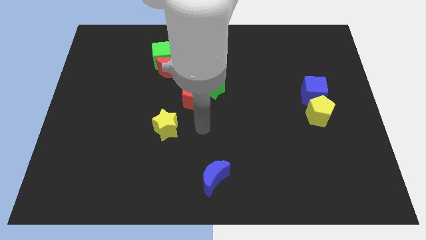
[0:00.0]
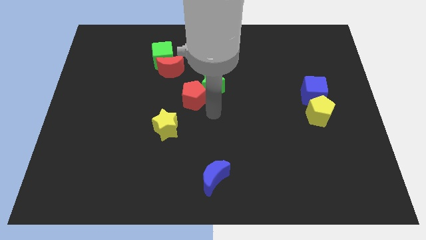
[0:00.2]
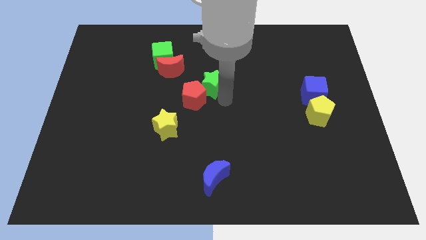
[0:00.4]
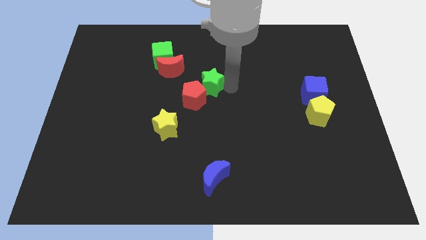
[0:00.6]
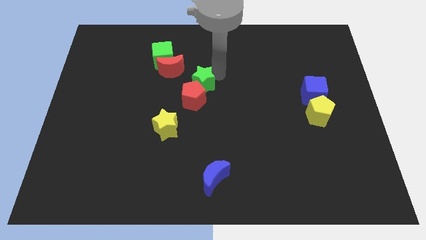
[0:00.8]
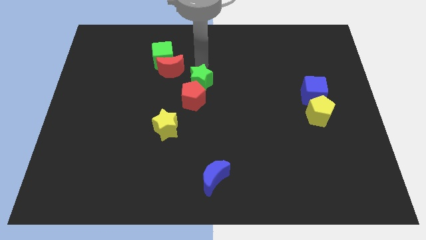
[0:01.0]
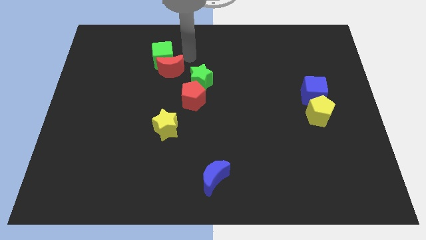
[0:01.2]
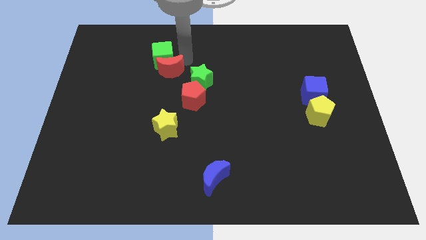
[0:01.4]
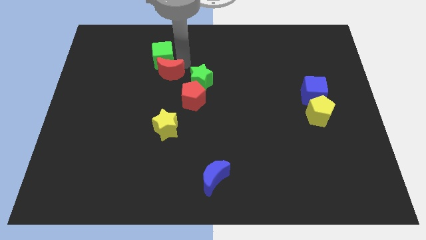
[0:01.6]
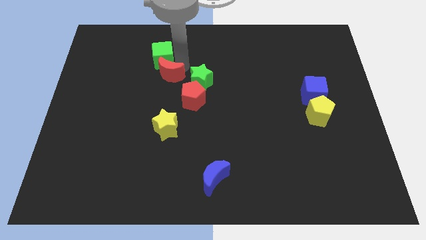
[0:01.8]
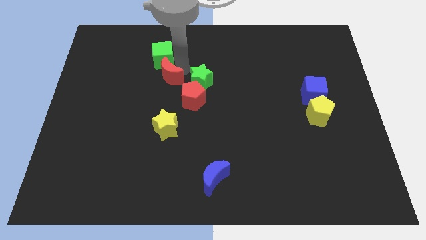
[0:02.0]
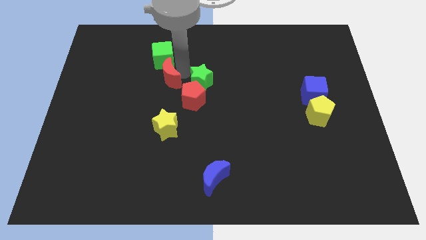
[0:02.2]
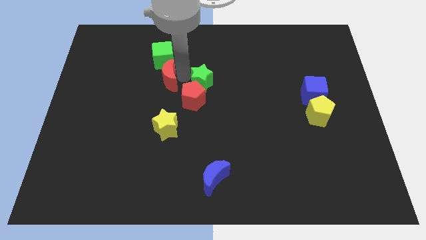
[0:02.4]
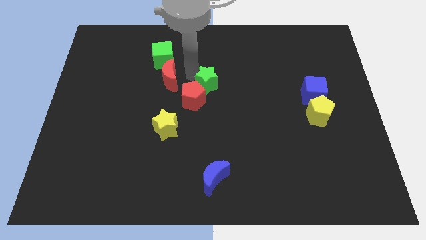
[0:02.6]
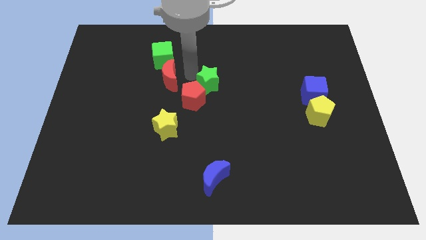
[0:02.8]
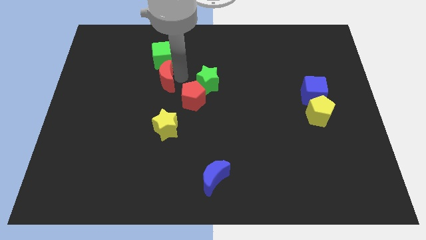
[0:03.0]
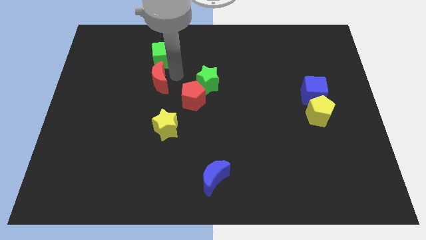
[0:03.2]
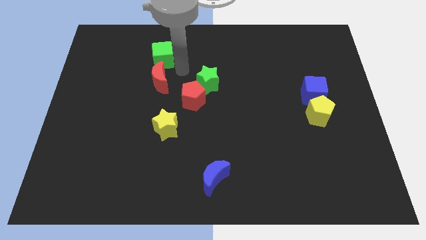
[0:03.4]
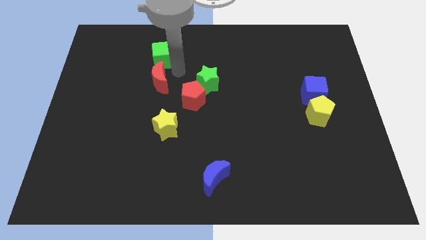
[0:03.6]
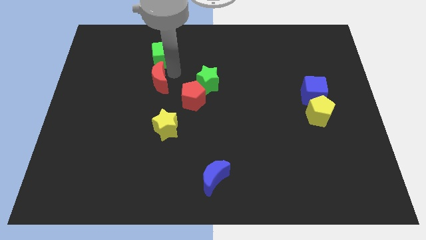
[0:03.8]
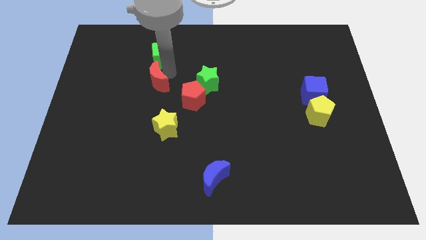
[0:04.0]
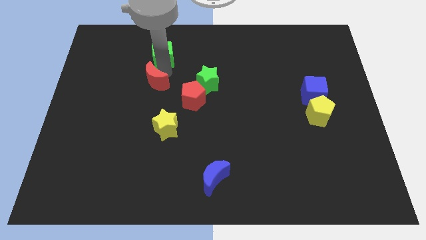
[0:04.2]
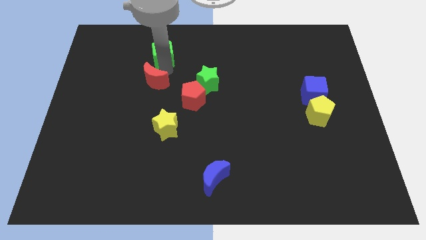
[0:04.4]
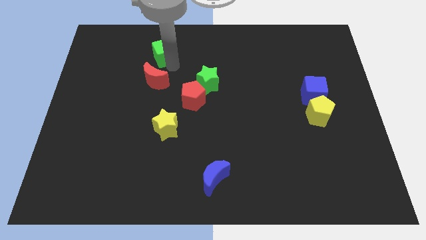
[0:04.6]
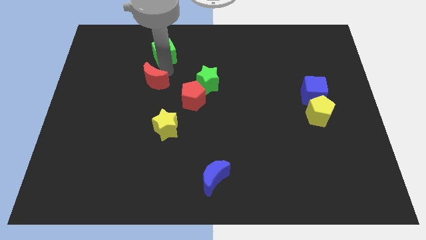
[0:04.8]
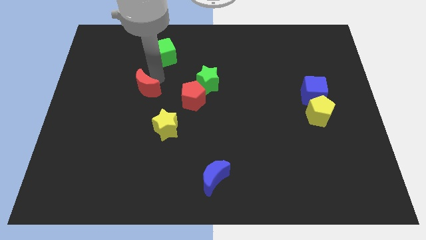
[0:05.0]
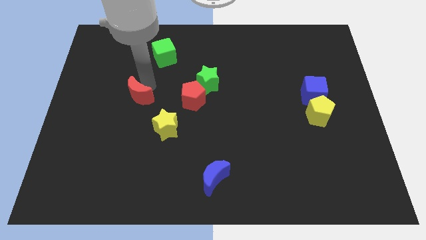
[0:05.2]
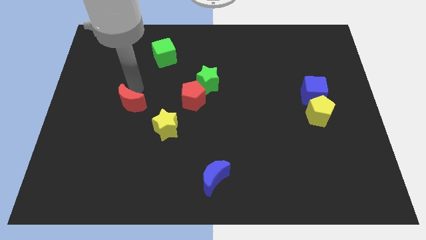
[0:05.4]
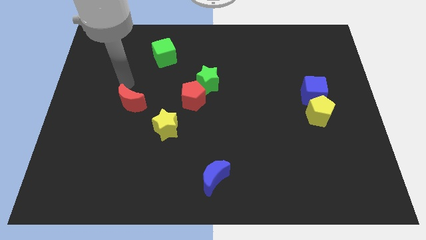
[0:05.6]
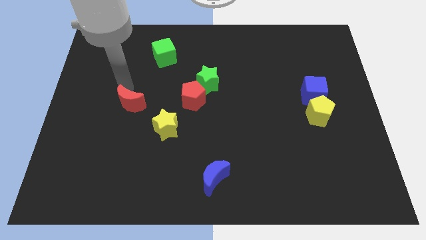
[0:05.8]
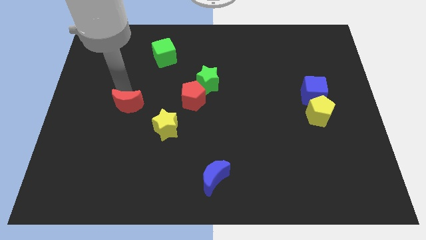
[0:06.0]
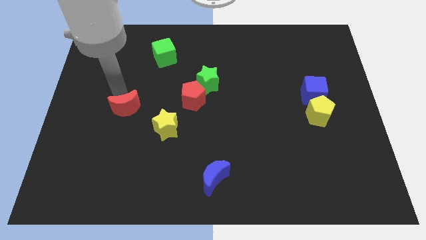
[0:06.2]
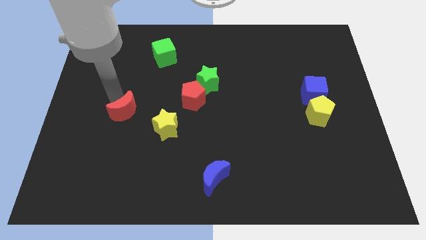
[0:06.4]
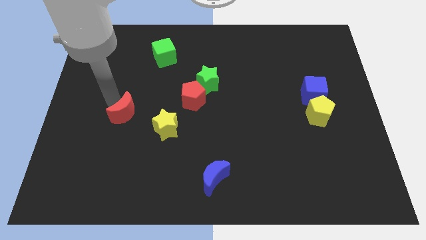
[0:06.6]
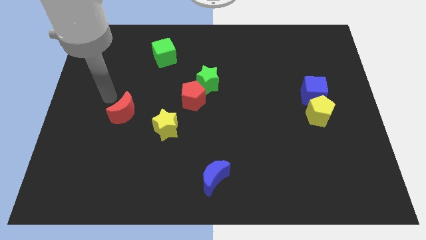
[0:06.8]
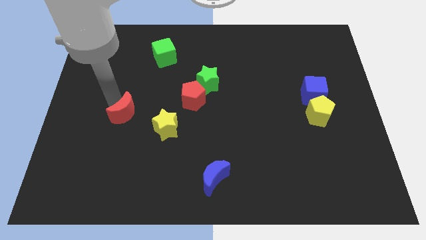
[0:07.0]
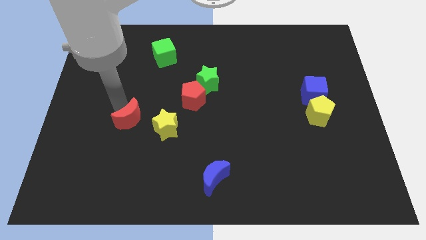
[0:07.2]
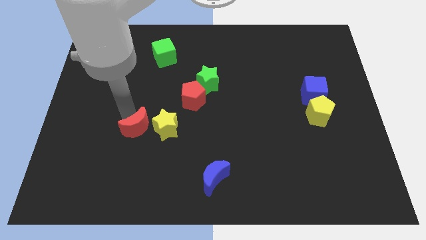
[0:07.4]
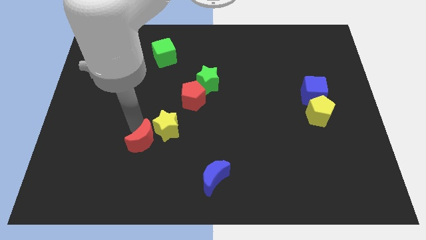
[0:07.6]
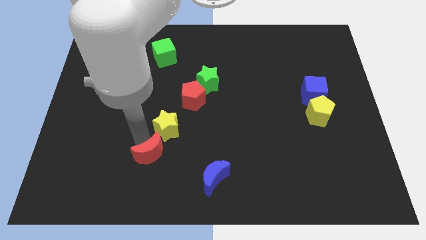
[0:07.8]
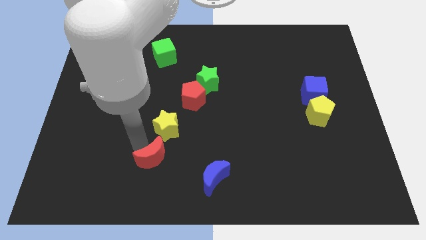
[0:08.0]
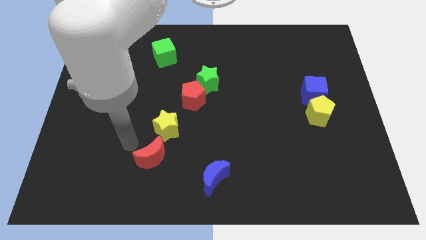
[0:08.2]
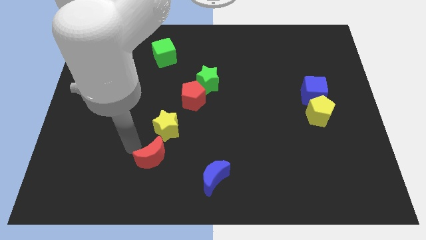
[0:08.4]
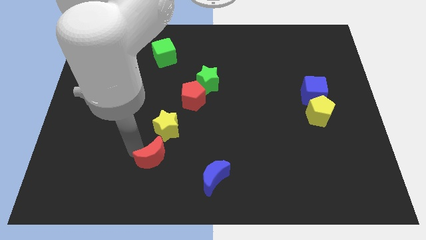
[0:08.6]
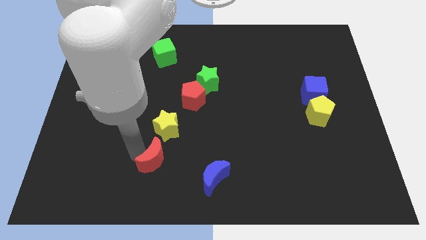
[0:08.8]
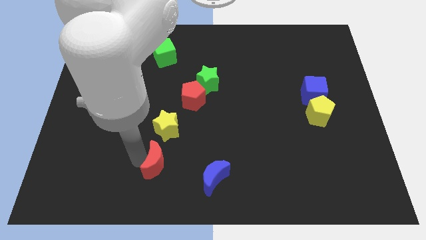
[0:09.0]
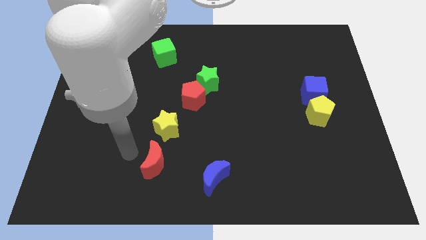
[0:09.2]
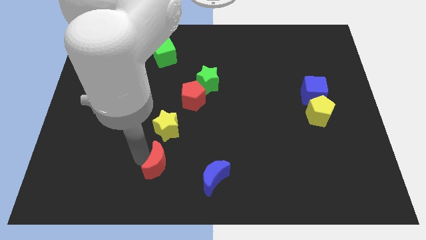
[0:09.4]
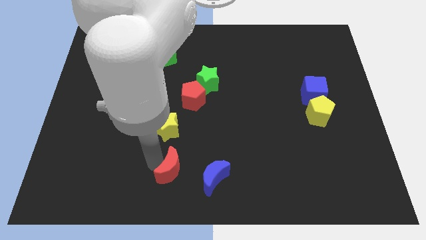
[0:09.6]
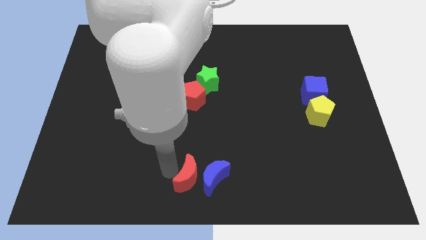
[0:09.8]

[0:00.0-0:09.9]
put the red moon close to the blue moon

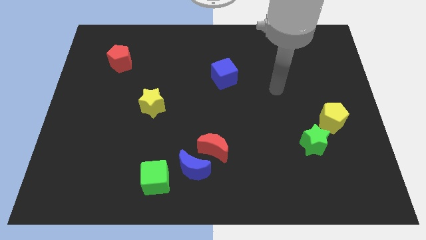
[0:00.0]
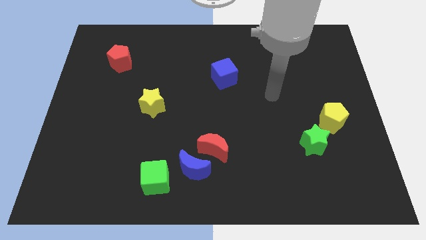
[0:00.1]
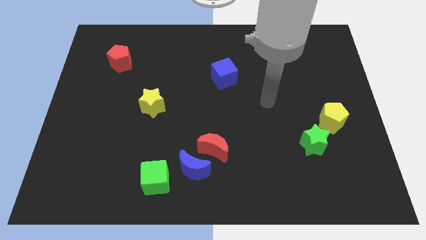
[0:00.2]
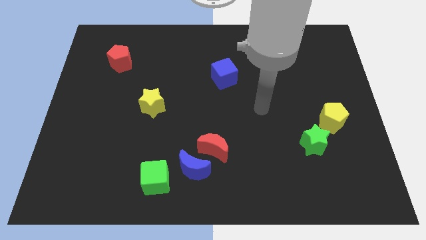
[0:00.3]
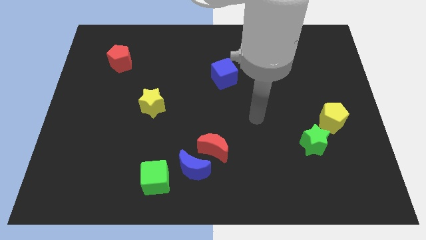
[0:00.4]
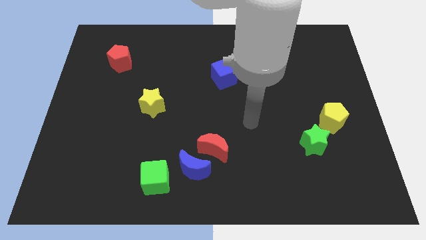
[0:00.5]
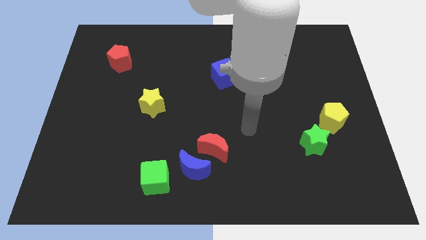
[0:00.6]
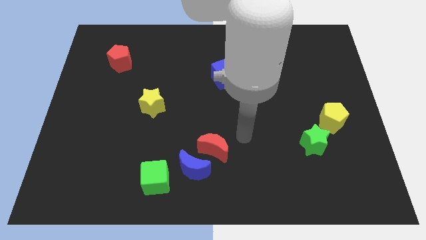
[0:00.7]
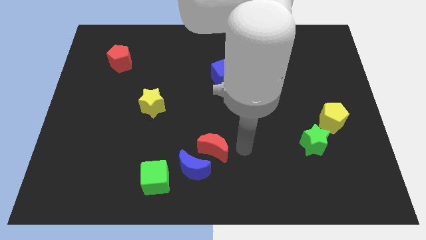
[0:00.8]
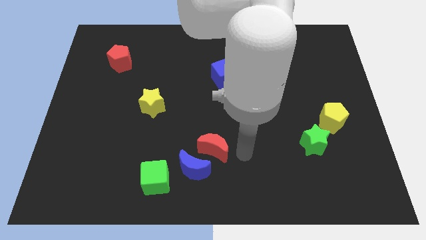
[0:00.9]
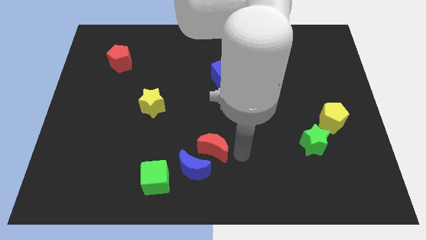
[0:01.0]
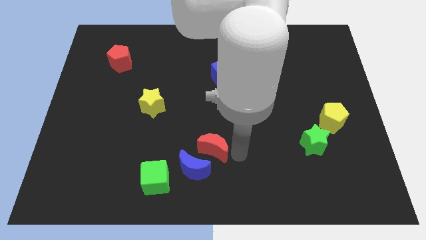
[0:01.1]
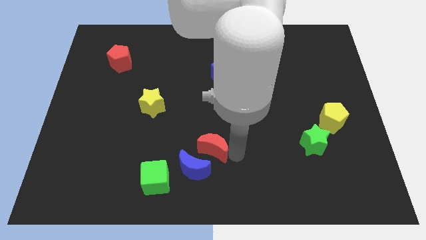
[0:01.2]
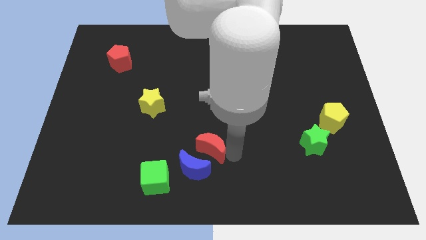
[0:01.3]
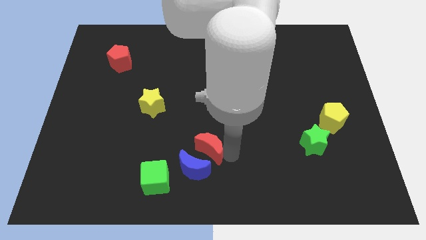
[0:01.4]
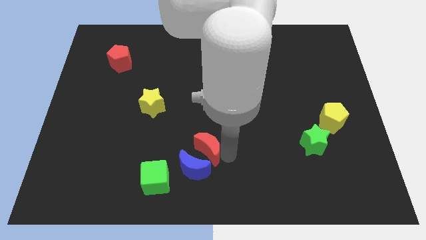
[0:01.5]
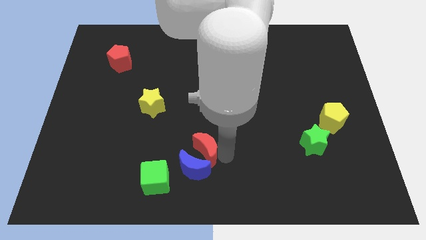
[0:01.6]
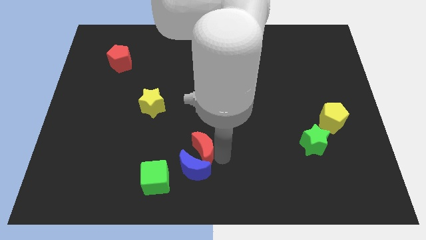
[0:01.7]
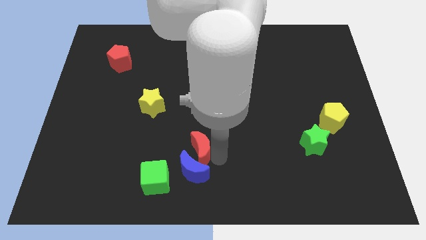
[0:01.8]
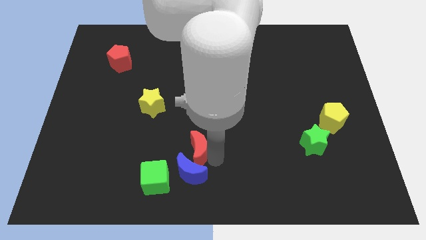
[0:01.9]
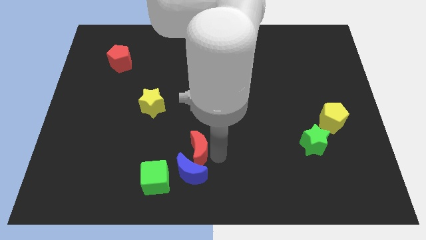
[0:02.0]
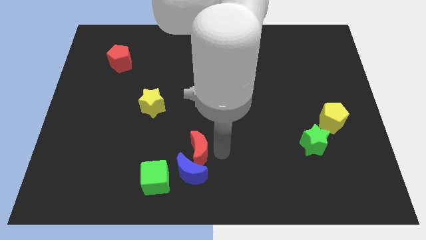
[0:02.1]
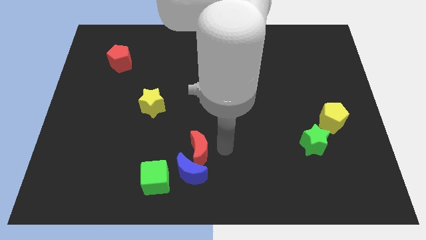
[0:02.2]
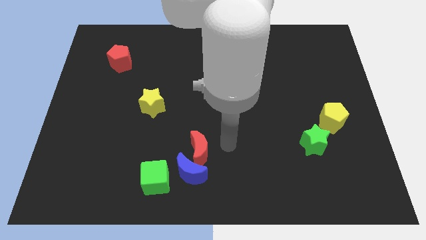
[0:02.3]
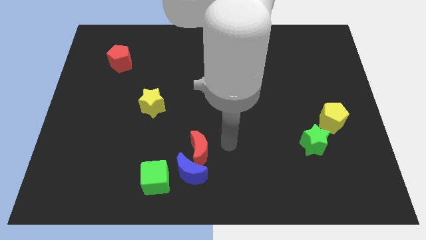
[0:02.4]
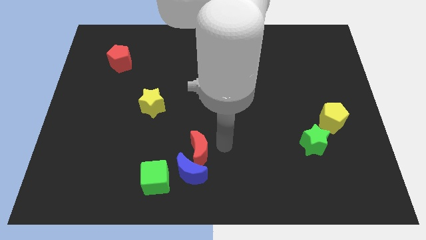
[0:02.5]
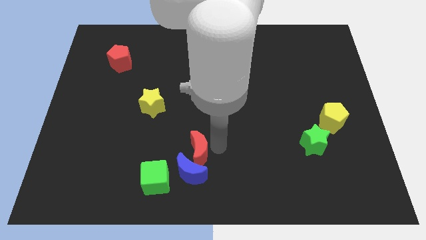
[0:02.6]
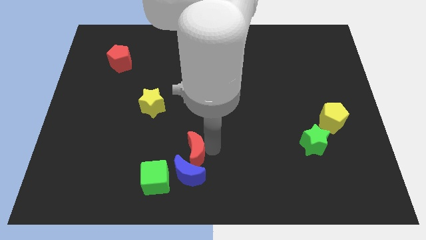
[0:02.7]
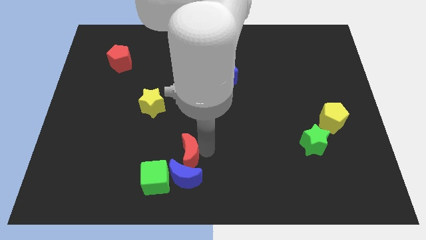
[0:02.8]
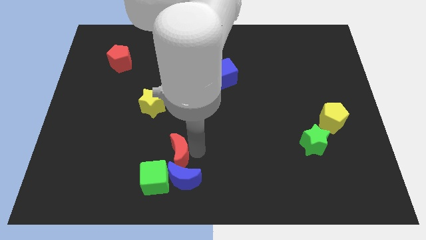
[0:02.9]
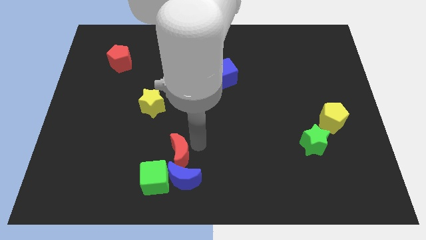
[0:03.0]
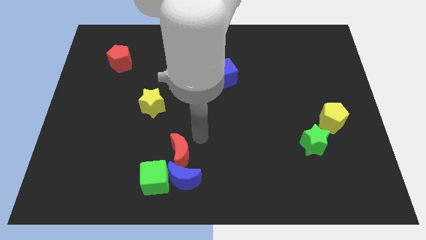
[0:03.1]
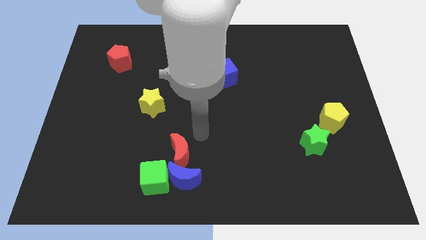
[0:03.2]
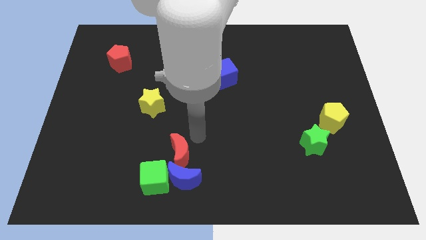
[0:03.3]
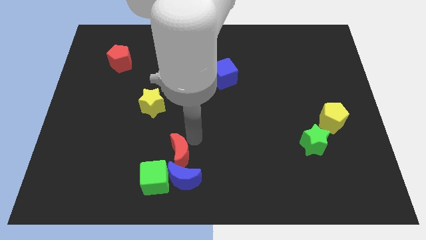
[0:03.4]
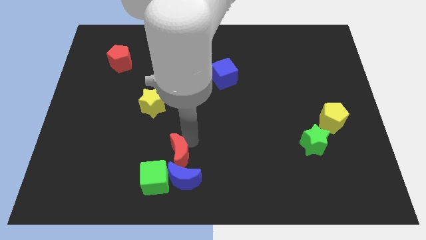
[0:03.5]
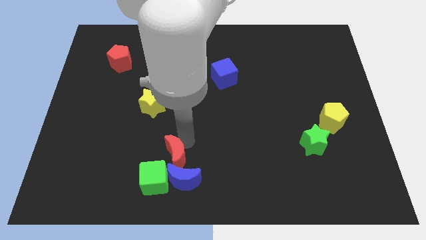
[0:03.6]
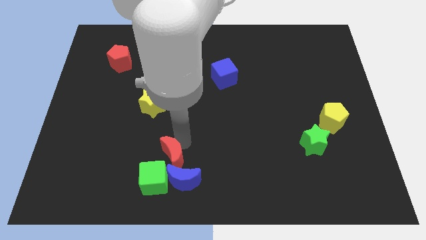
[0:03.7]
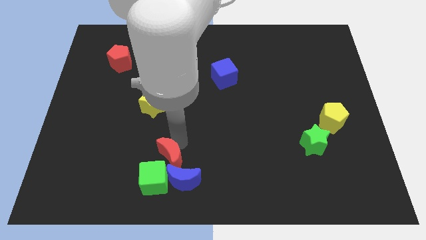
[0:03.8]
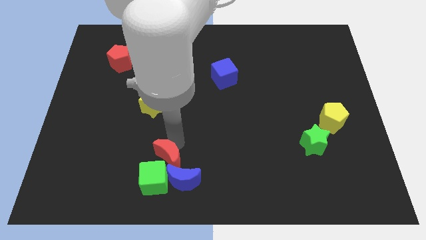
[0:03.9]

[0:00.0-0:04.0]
put the red moon to the green cube
